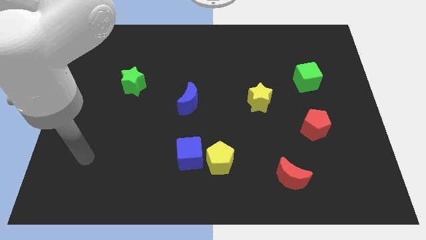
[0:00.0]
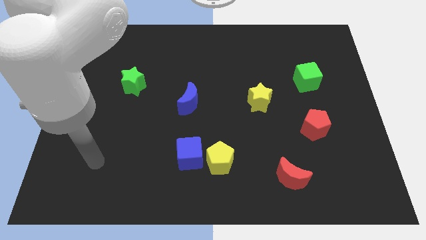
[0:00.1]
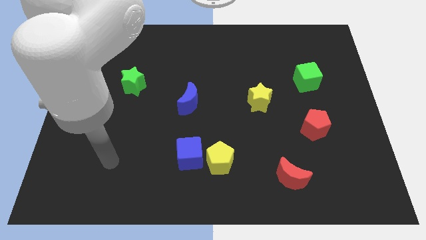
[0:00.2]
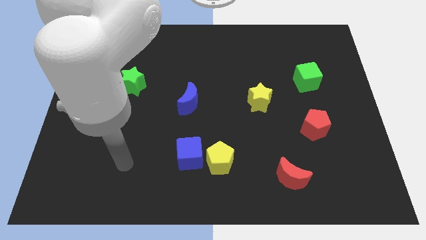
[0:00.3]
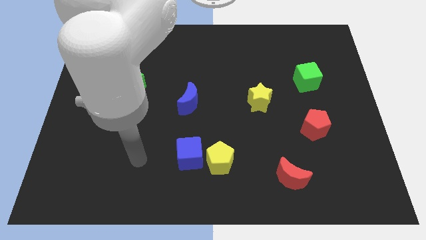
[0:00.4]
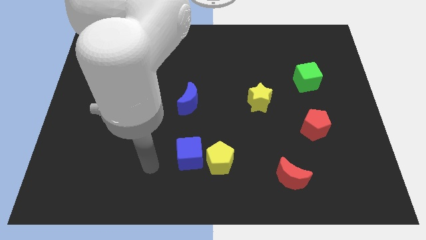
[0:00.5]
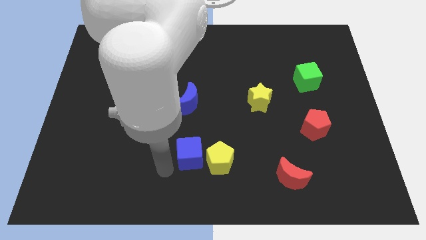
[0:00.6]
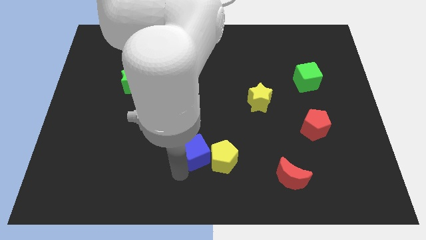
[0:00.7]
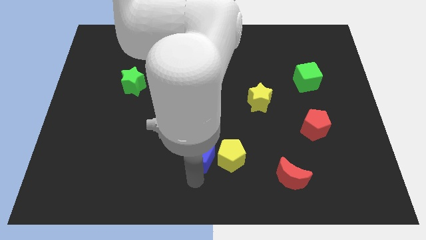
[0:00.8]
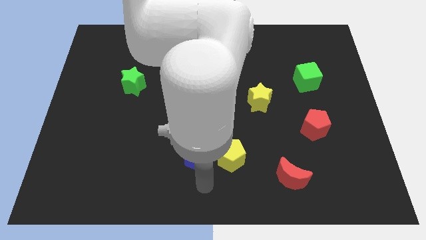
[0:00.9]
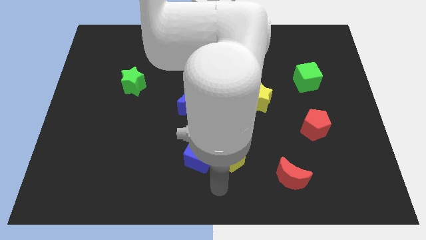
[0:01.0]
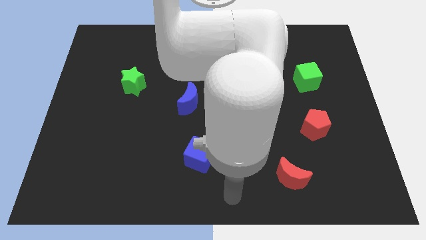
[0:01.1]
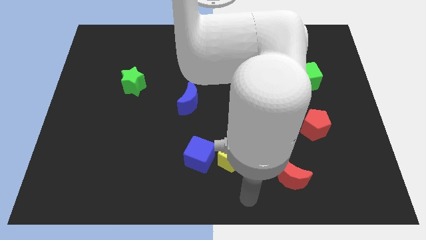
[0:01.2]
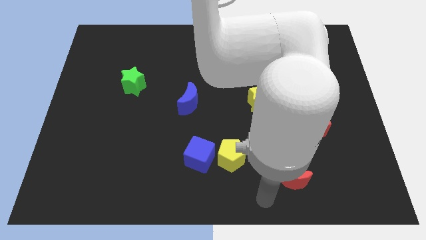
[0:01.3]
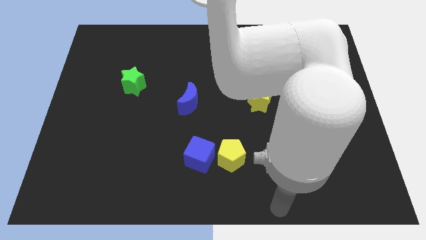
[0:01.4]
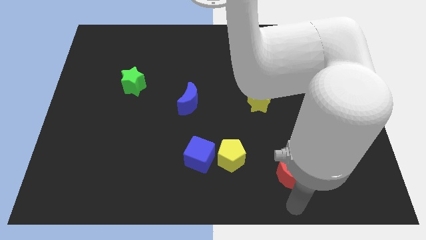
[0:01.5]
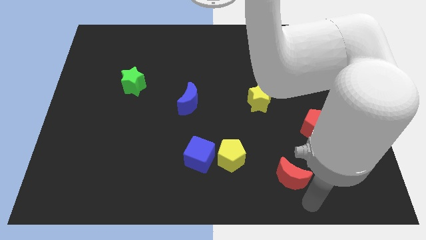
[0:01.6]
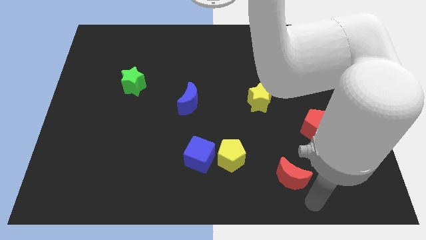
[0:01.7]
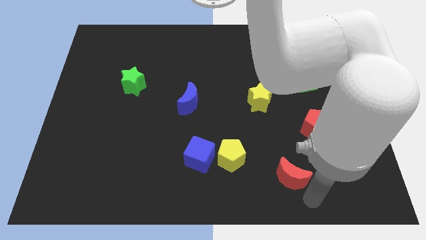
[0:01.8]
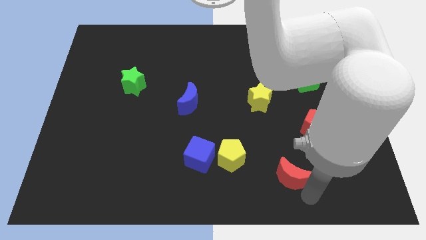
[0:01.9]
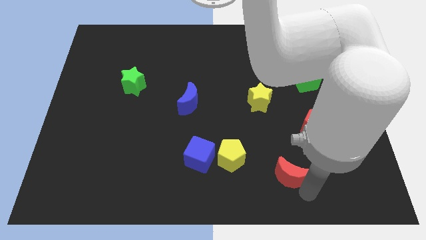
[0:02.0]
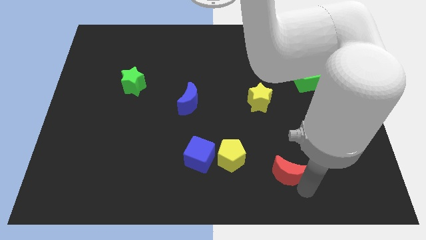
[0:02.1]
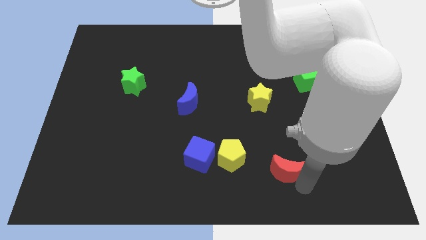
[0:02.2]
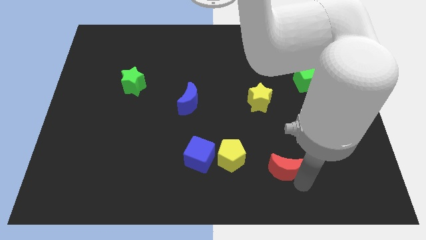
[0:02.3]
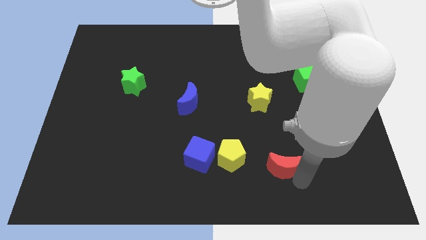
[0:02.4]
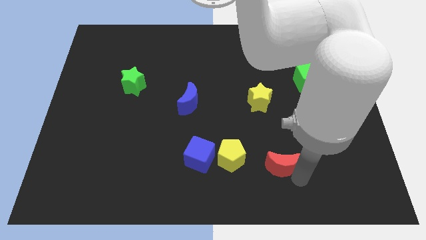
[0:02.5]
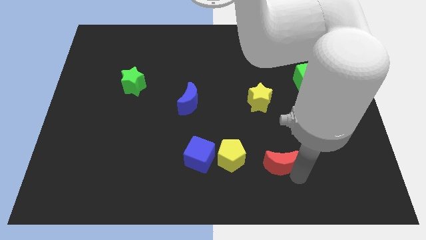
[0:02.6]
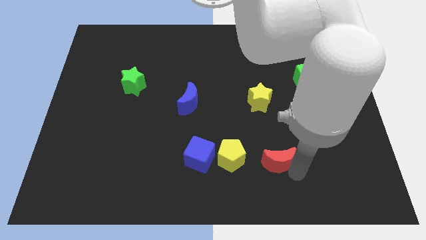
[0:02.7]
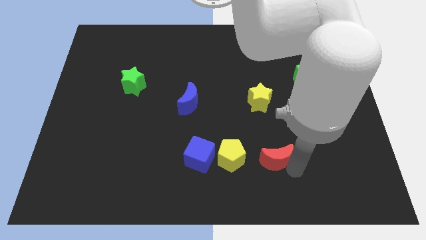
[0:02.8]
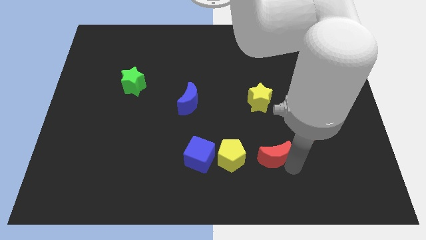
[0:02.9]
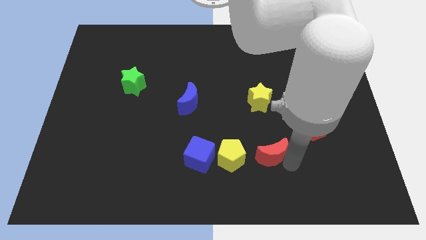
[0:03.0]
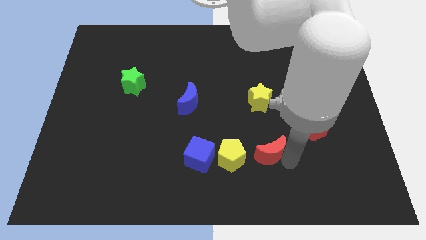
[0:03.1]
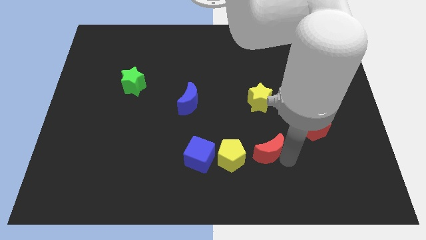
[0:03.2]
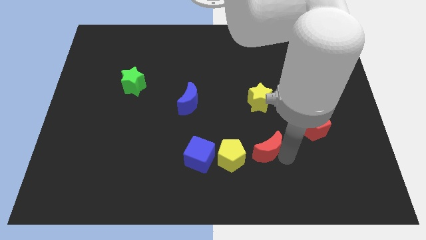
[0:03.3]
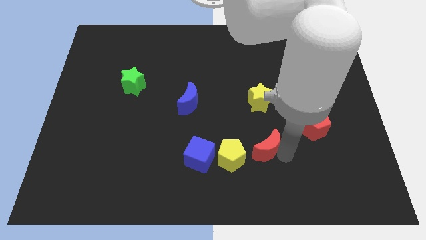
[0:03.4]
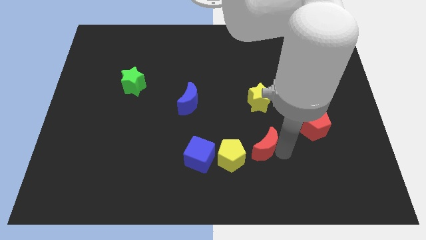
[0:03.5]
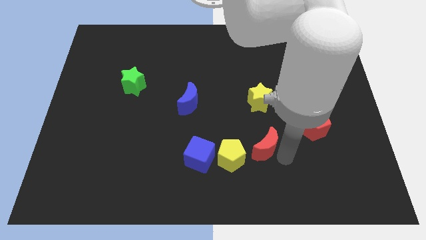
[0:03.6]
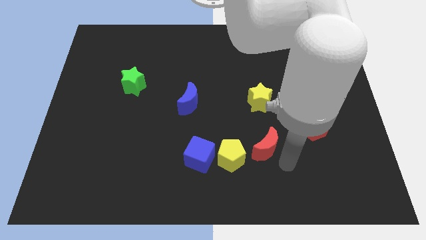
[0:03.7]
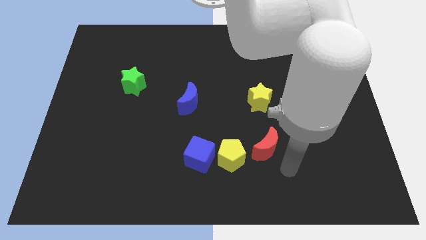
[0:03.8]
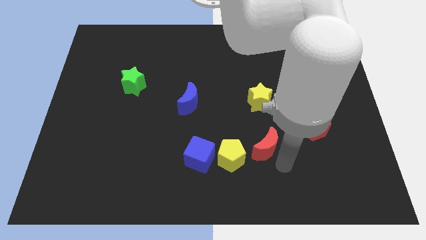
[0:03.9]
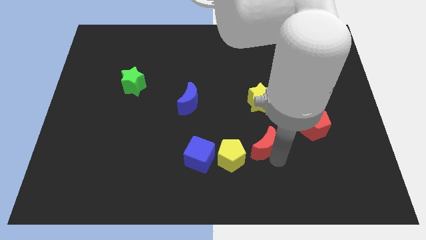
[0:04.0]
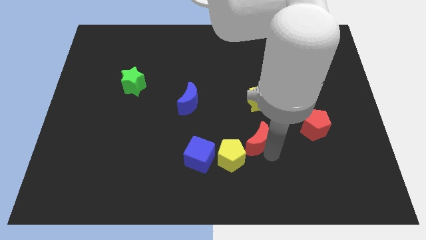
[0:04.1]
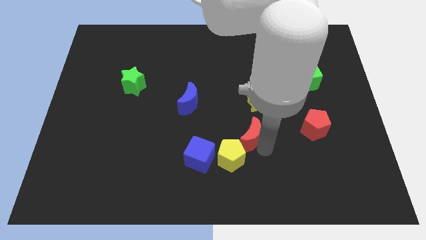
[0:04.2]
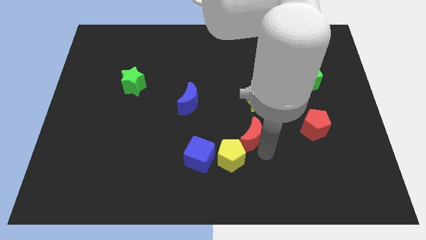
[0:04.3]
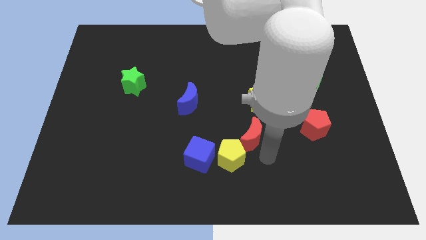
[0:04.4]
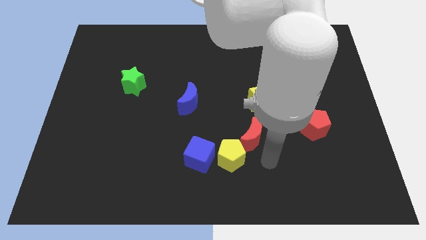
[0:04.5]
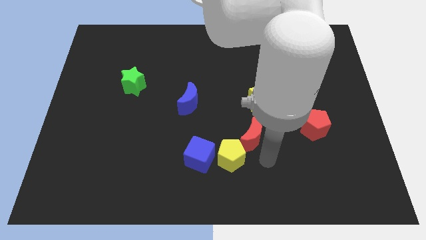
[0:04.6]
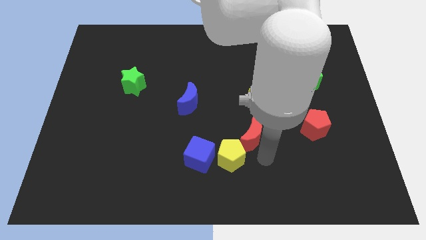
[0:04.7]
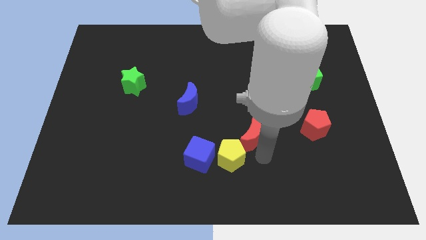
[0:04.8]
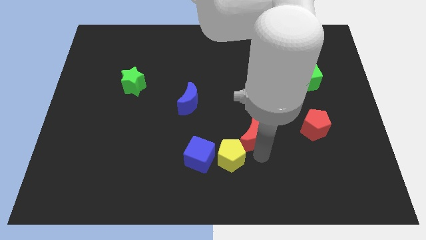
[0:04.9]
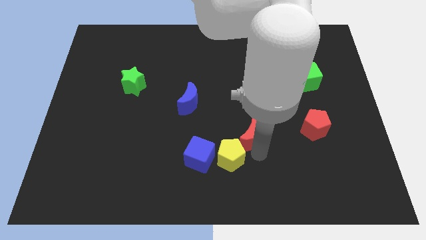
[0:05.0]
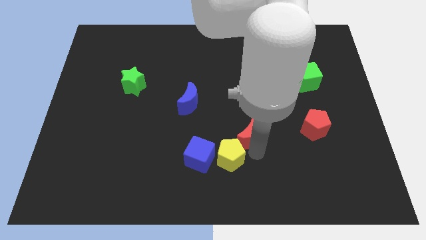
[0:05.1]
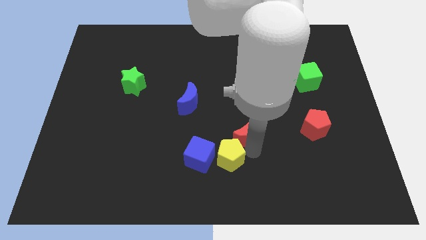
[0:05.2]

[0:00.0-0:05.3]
push the red moon to the center

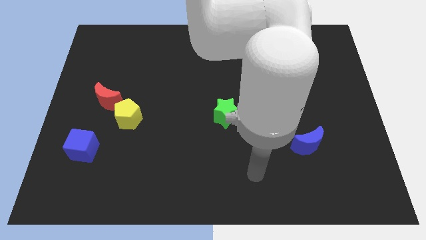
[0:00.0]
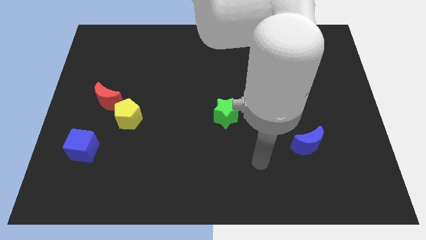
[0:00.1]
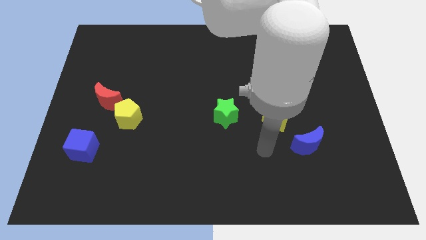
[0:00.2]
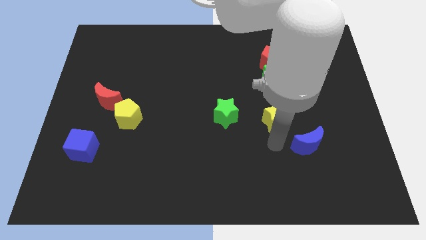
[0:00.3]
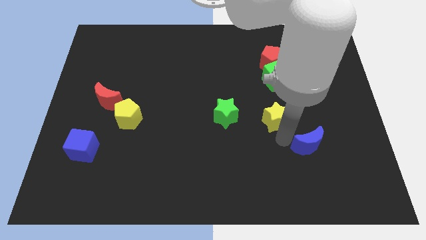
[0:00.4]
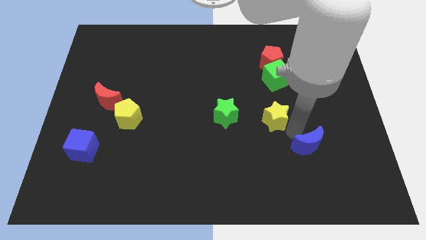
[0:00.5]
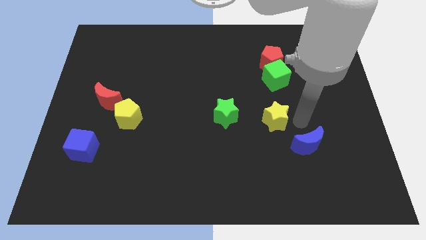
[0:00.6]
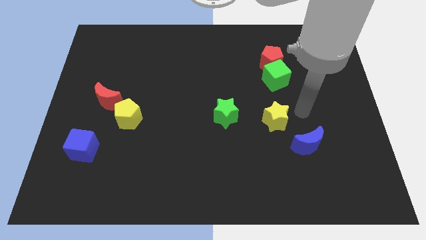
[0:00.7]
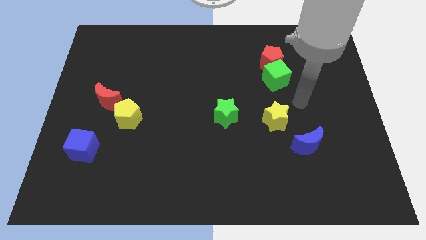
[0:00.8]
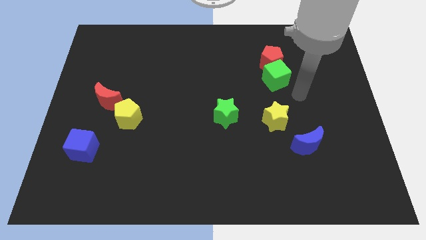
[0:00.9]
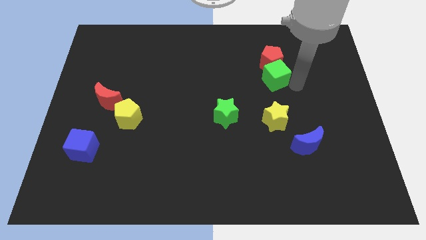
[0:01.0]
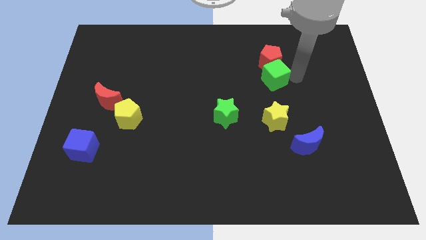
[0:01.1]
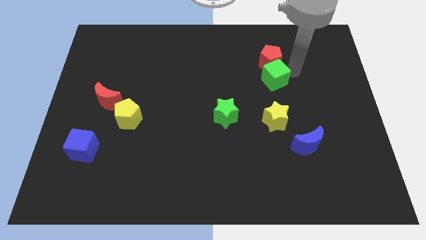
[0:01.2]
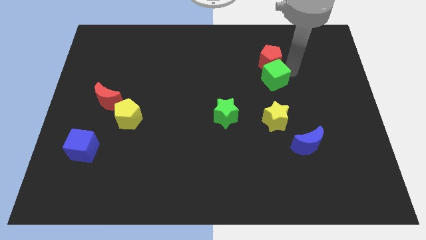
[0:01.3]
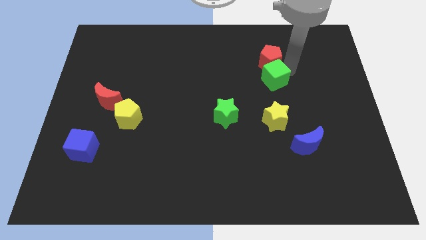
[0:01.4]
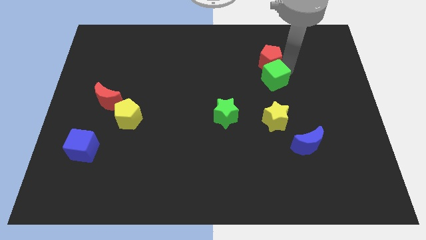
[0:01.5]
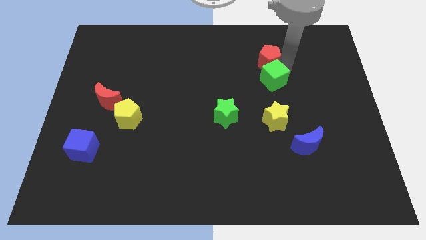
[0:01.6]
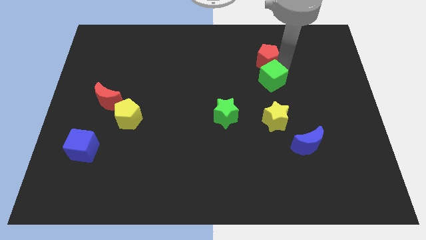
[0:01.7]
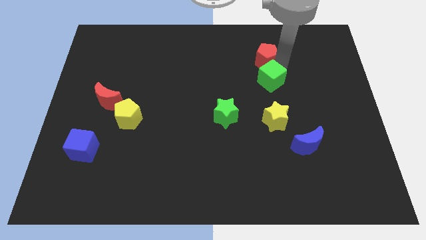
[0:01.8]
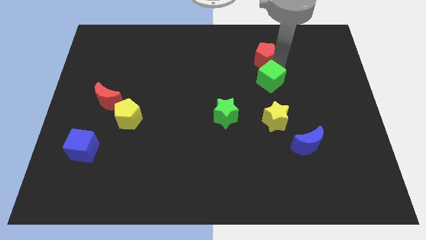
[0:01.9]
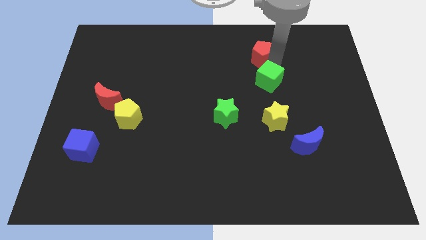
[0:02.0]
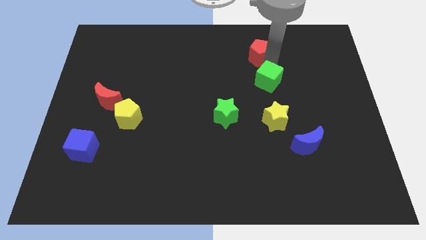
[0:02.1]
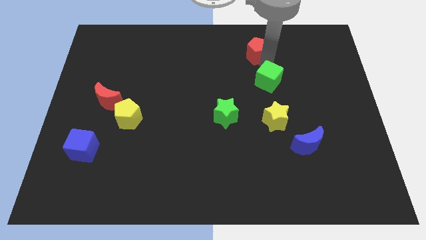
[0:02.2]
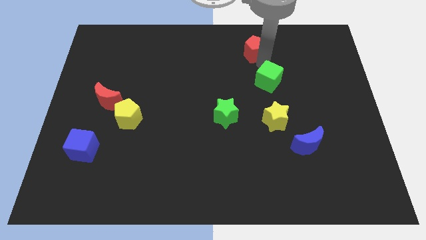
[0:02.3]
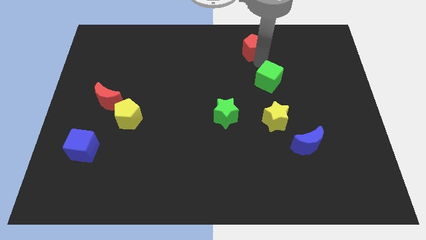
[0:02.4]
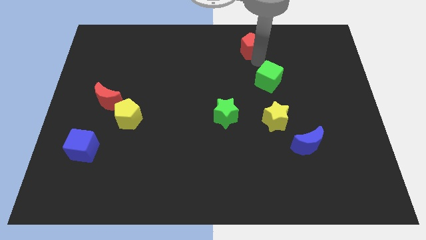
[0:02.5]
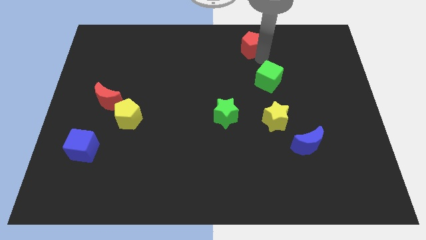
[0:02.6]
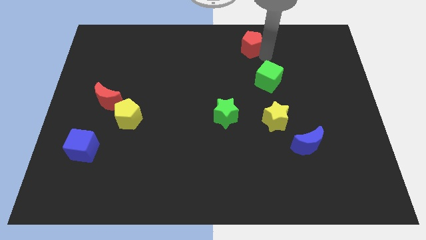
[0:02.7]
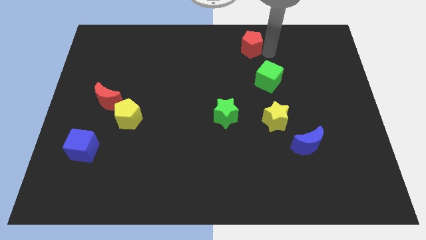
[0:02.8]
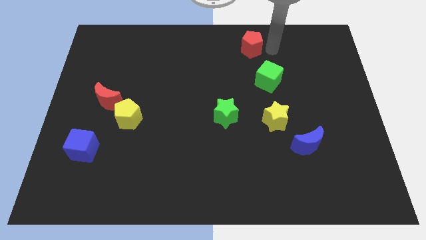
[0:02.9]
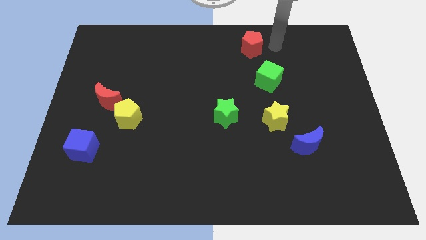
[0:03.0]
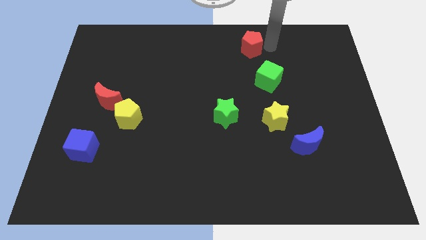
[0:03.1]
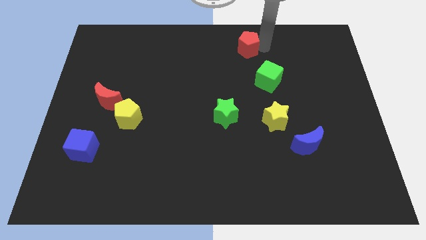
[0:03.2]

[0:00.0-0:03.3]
move the red pentagon to the top
